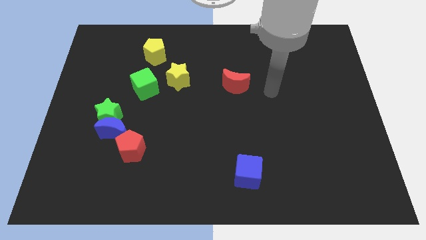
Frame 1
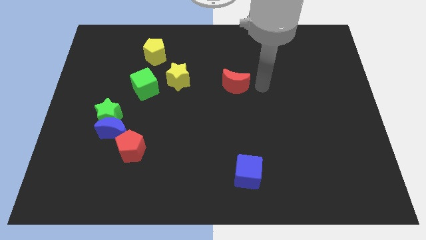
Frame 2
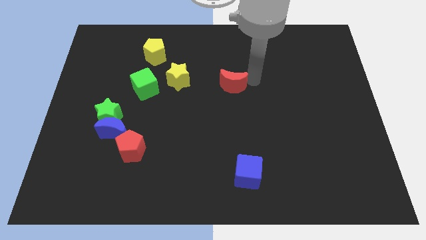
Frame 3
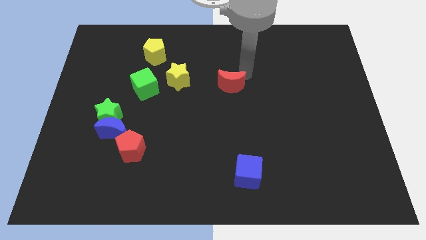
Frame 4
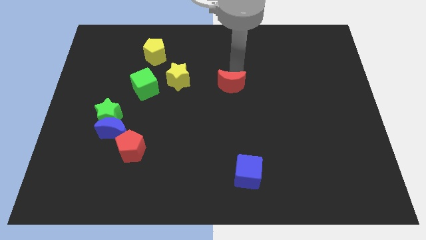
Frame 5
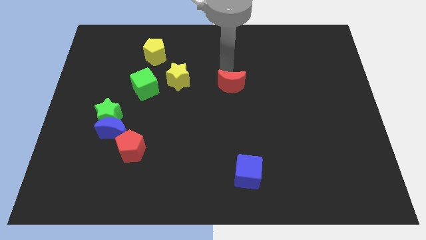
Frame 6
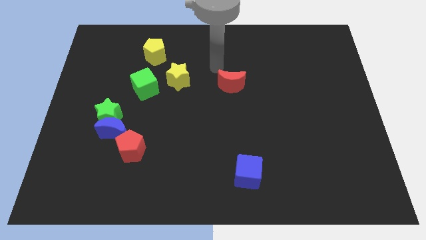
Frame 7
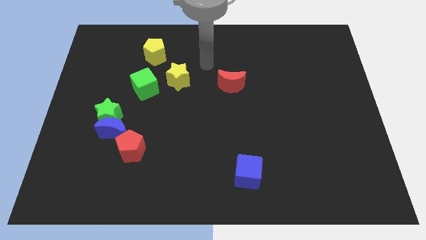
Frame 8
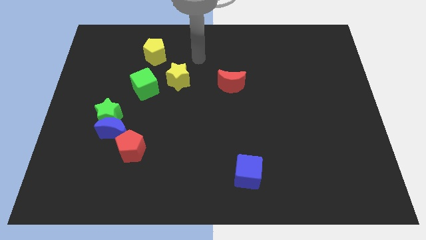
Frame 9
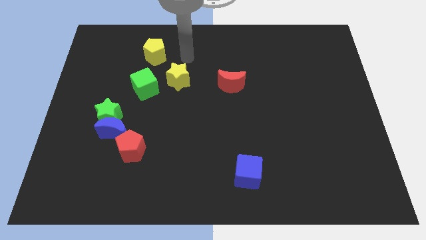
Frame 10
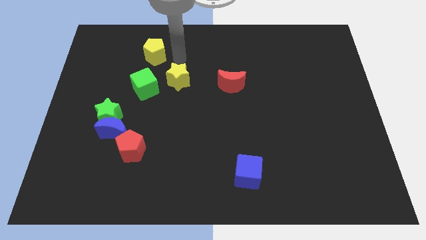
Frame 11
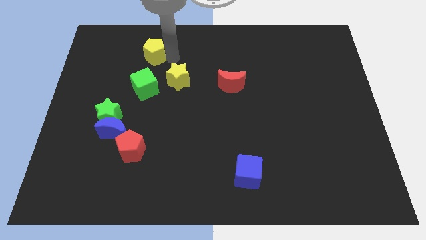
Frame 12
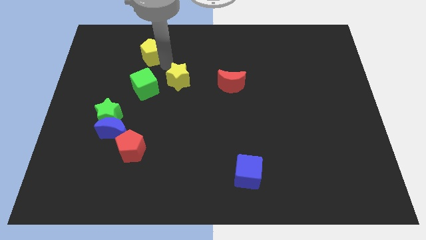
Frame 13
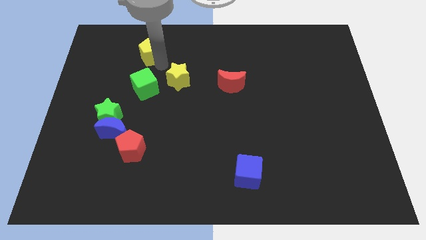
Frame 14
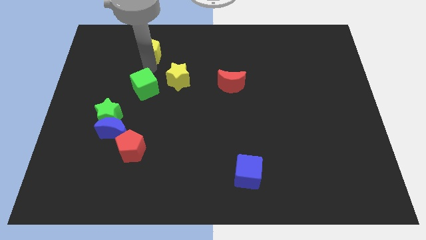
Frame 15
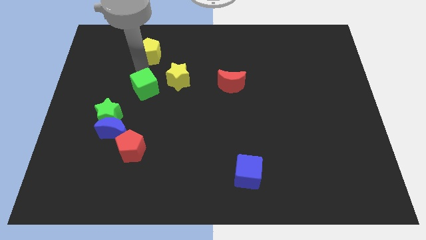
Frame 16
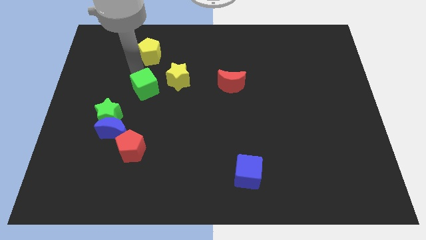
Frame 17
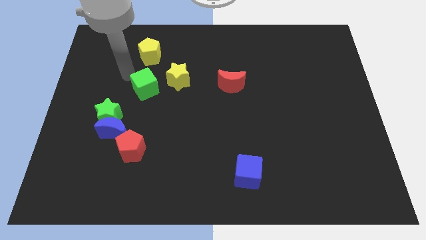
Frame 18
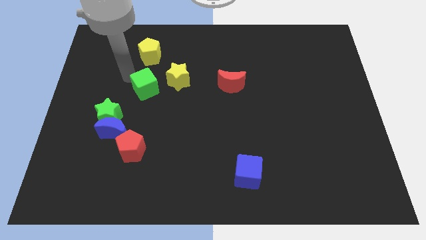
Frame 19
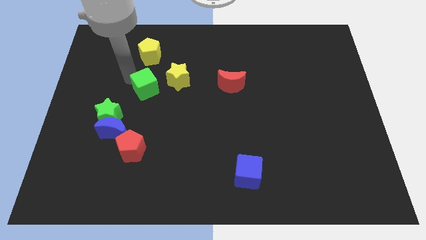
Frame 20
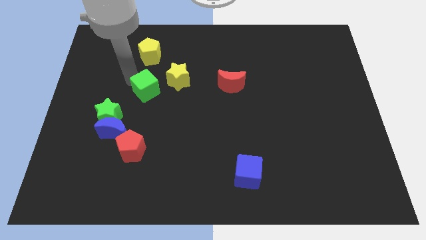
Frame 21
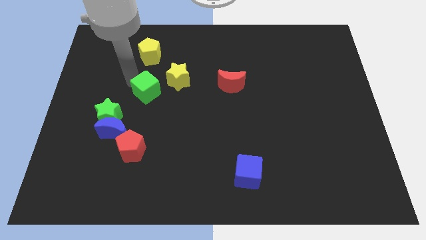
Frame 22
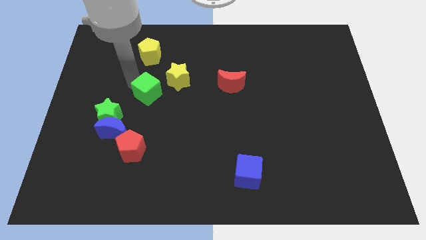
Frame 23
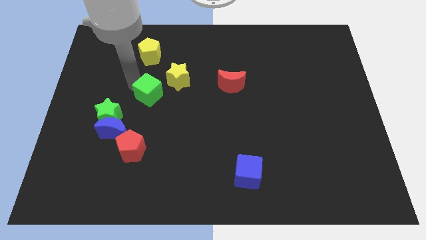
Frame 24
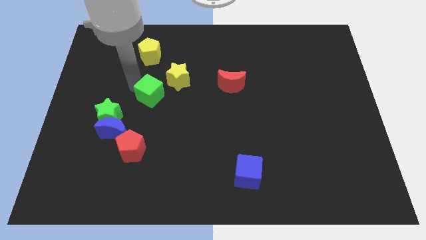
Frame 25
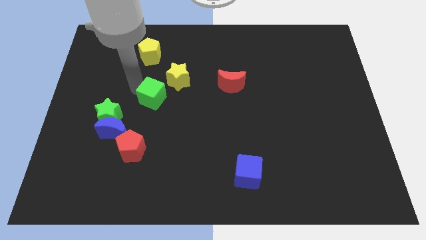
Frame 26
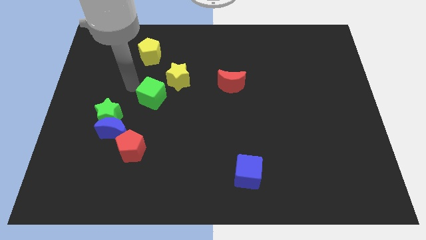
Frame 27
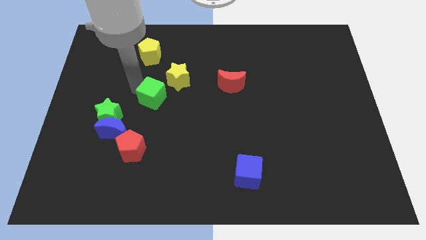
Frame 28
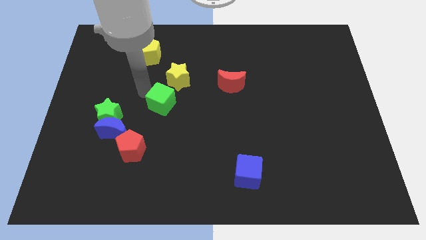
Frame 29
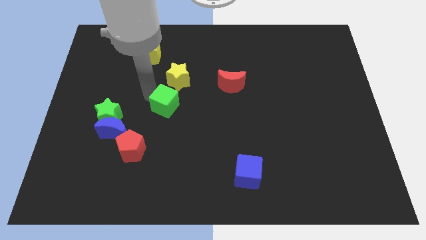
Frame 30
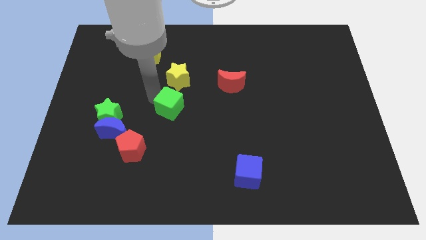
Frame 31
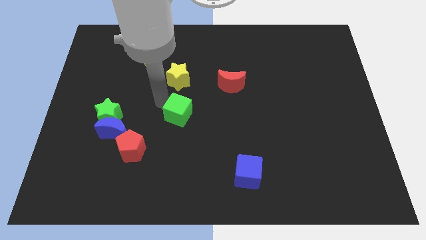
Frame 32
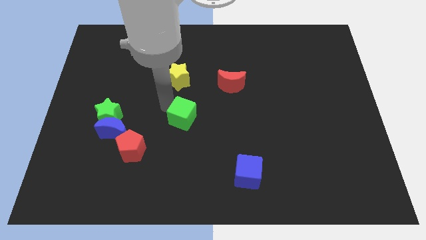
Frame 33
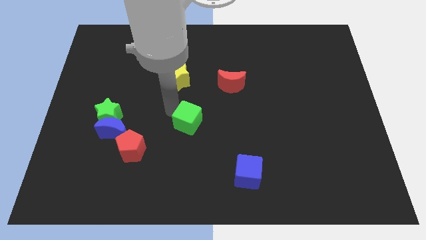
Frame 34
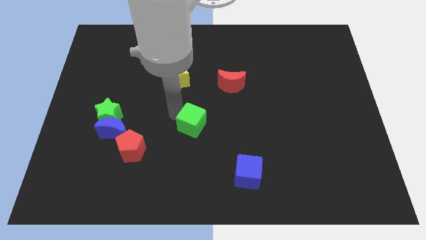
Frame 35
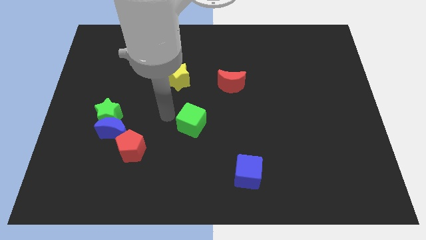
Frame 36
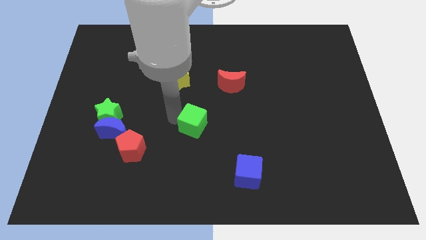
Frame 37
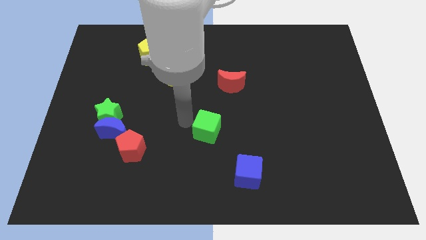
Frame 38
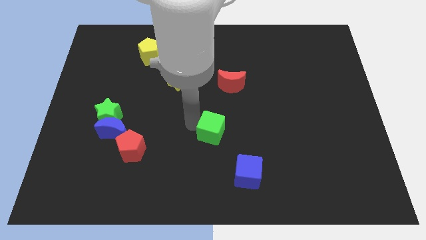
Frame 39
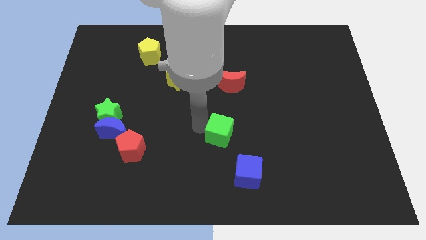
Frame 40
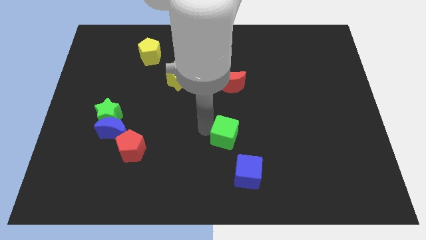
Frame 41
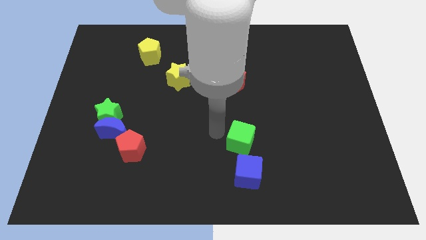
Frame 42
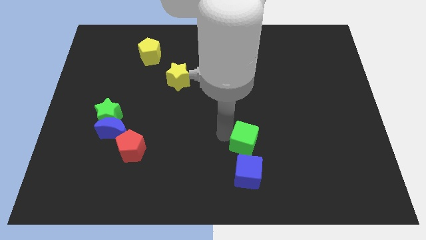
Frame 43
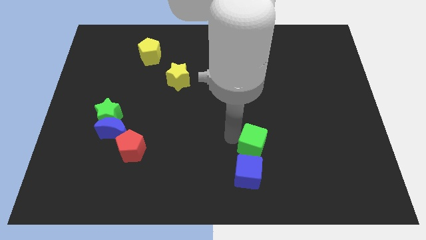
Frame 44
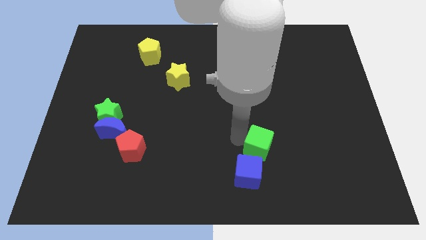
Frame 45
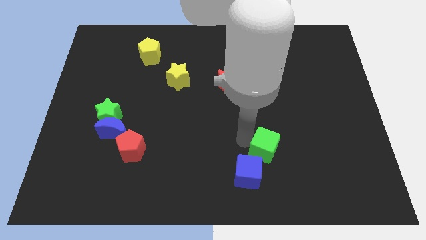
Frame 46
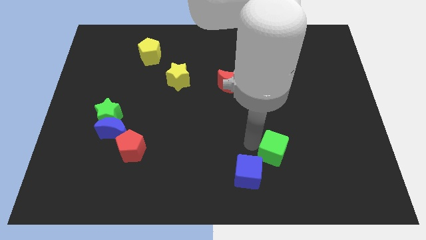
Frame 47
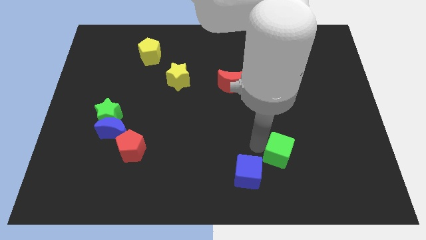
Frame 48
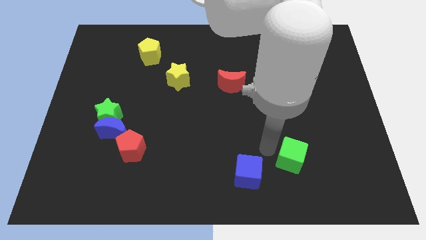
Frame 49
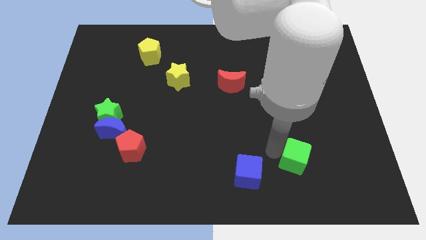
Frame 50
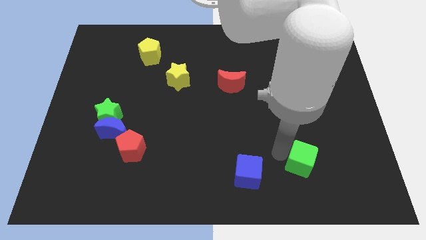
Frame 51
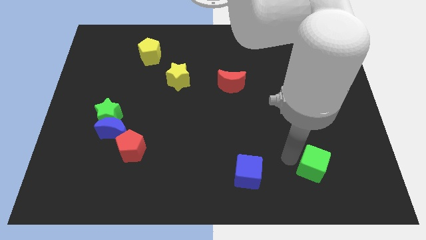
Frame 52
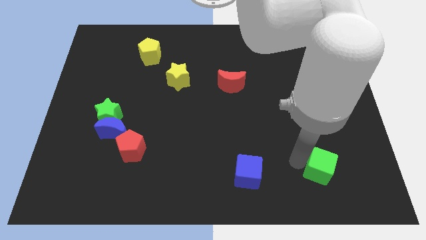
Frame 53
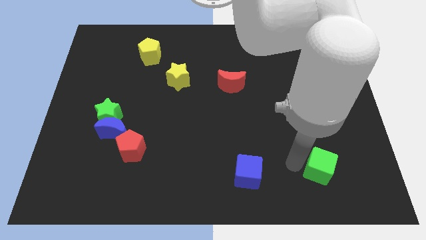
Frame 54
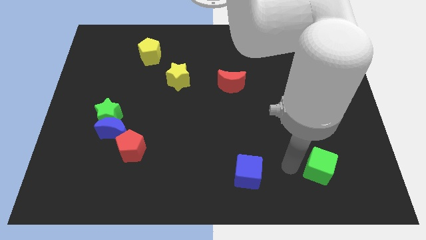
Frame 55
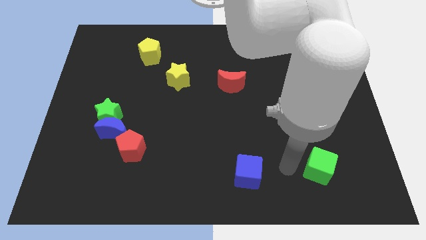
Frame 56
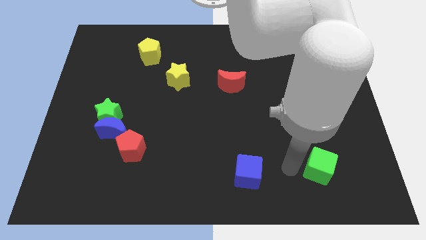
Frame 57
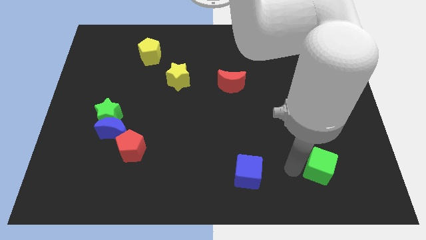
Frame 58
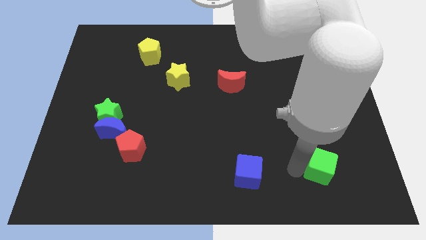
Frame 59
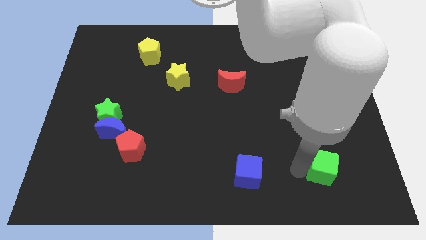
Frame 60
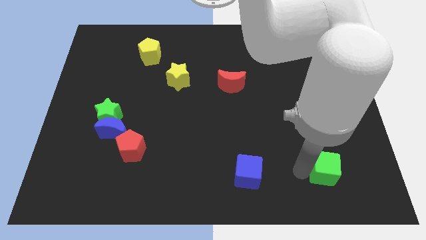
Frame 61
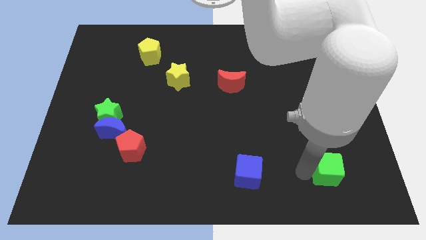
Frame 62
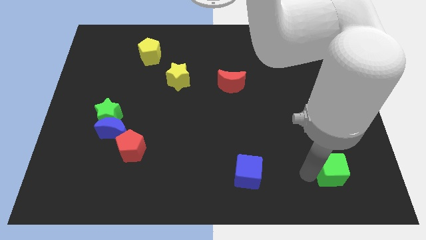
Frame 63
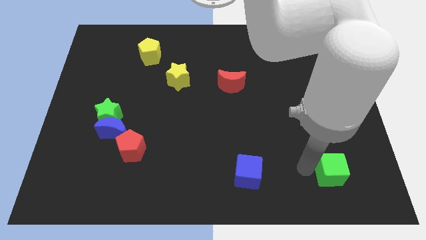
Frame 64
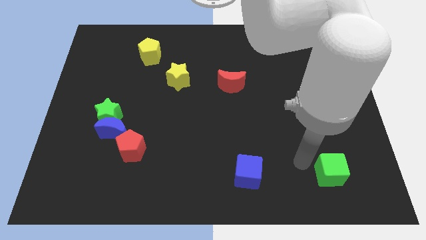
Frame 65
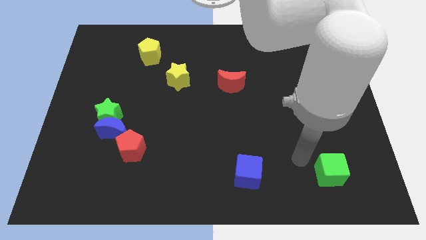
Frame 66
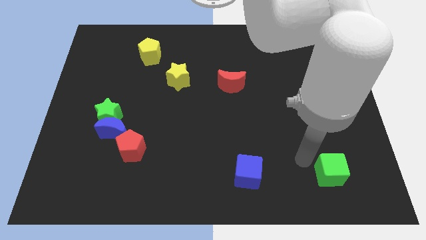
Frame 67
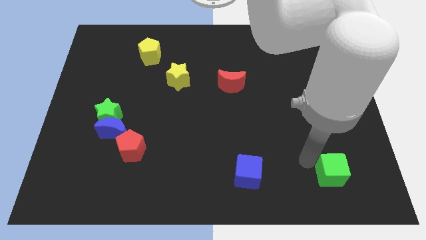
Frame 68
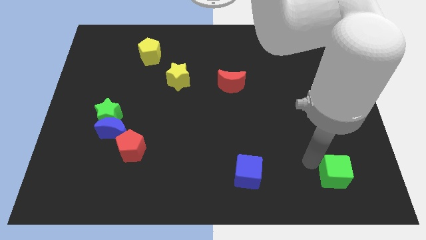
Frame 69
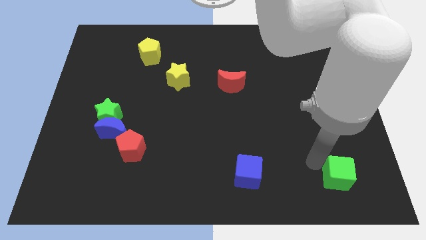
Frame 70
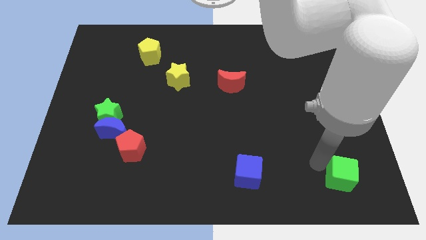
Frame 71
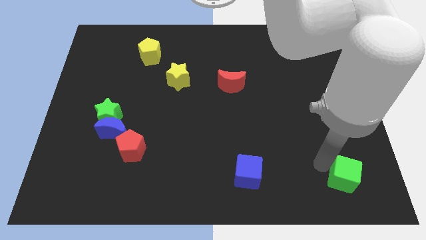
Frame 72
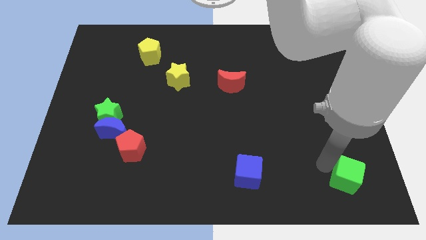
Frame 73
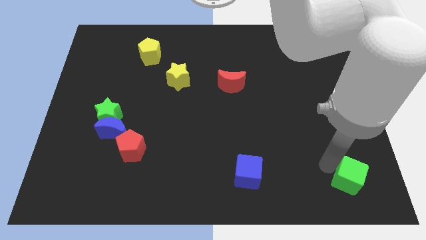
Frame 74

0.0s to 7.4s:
put the green cube to the bottom right corner

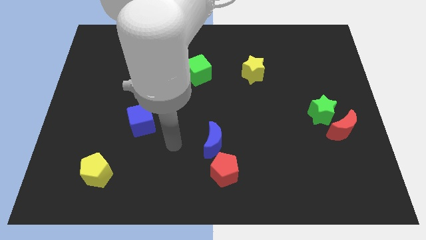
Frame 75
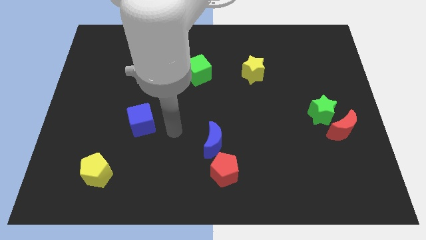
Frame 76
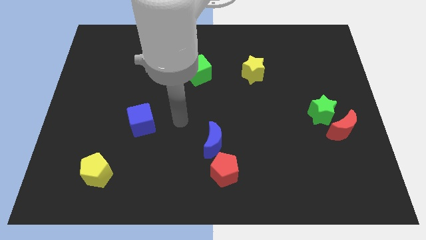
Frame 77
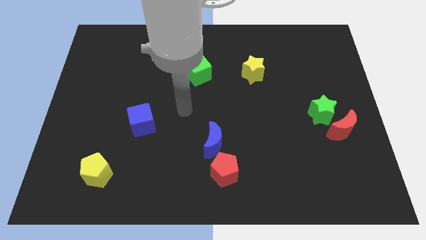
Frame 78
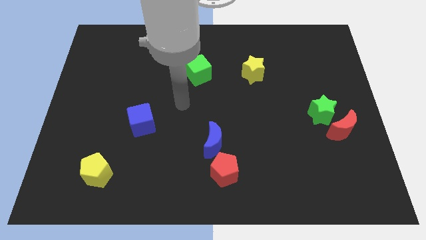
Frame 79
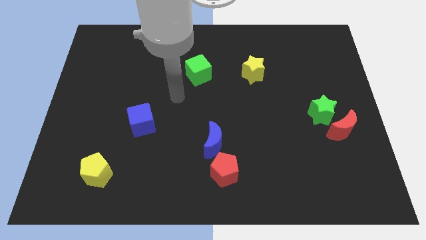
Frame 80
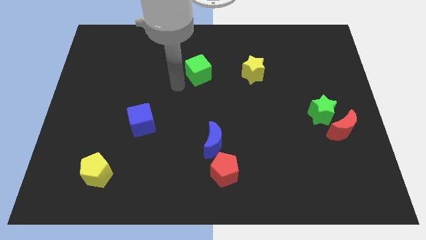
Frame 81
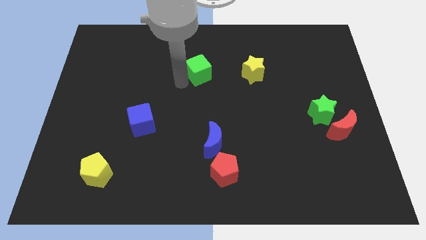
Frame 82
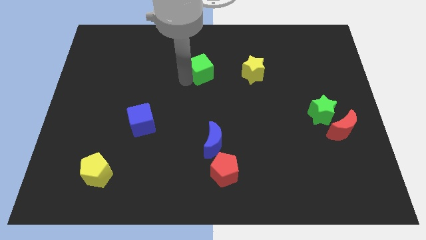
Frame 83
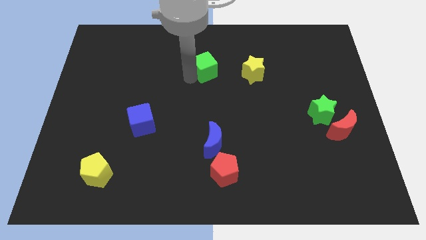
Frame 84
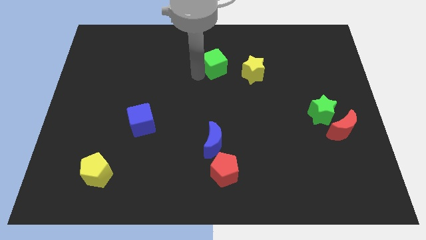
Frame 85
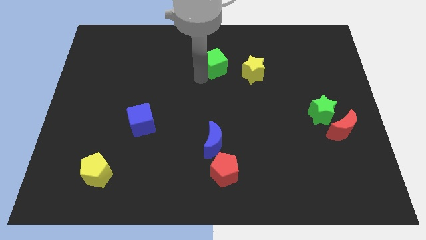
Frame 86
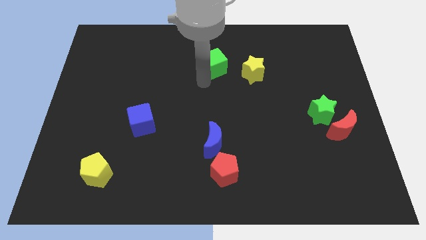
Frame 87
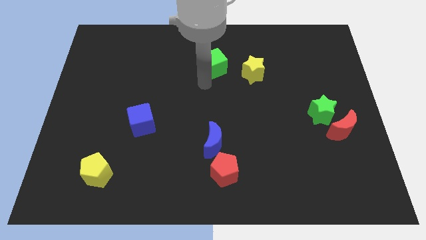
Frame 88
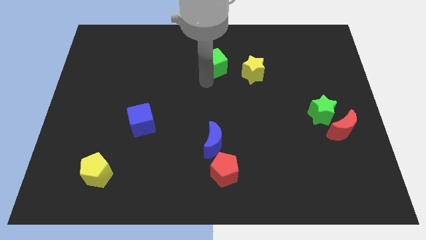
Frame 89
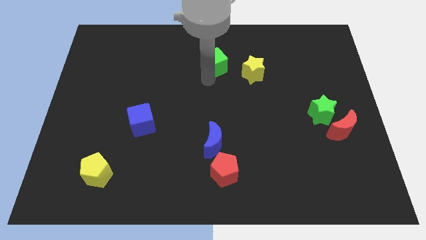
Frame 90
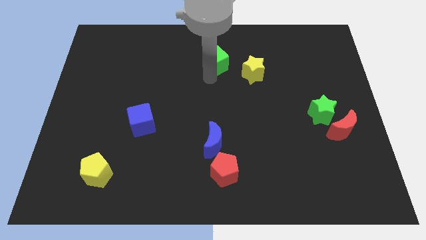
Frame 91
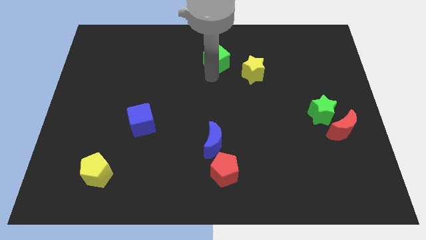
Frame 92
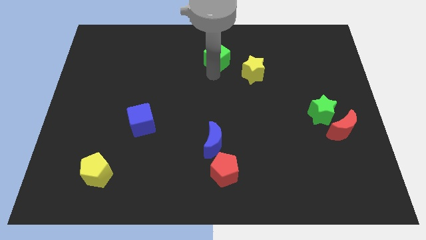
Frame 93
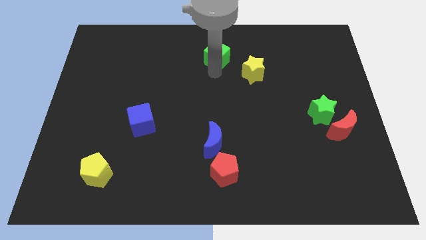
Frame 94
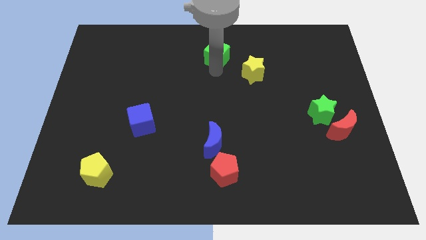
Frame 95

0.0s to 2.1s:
slide the green cube to the towards your base
